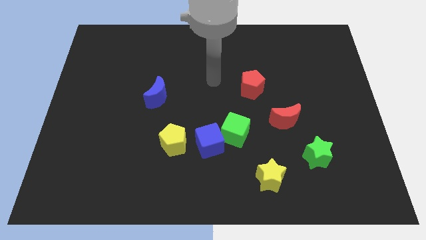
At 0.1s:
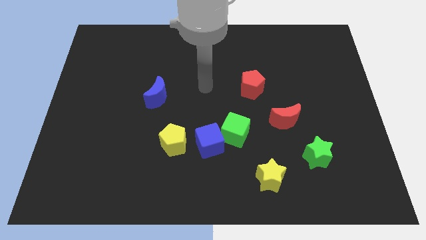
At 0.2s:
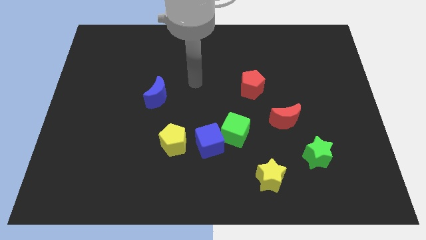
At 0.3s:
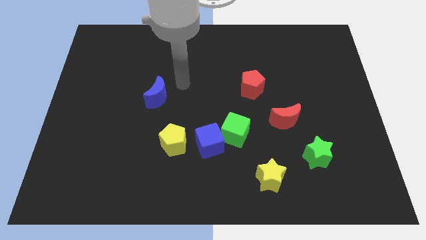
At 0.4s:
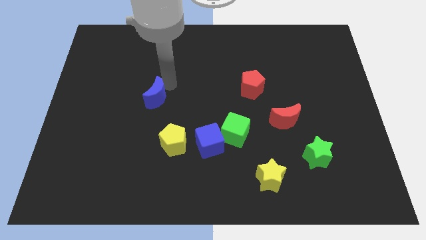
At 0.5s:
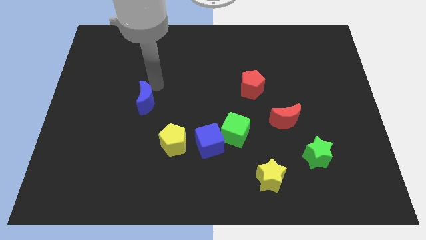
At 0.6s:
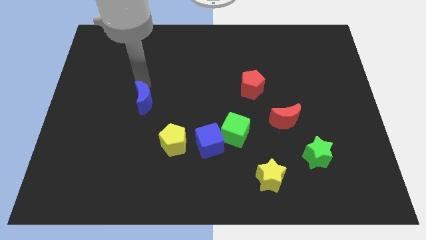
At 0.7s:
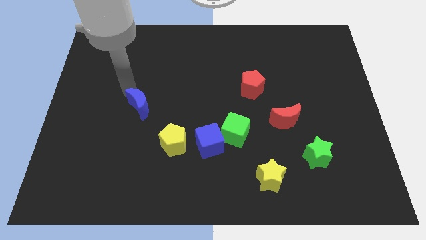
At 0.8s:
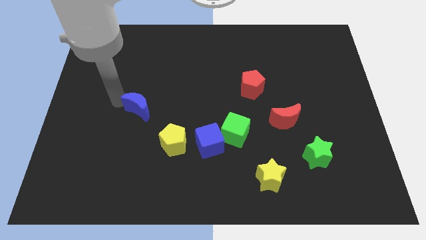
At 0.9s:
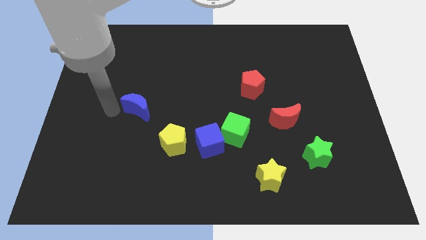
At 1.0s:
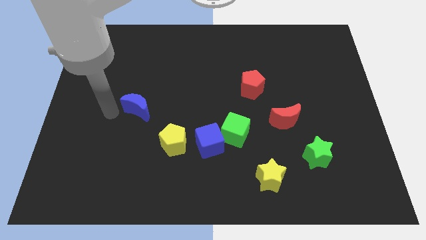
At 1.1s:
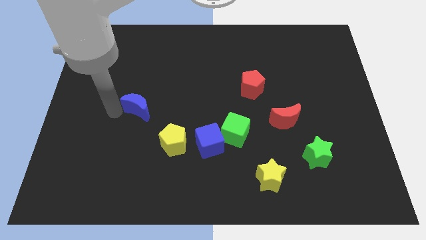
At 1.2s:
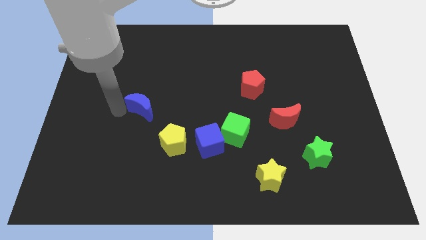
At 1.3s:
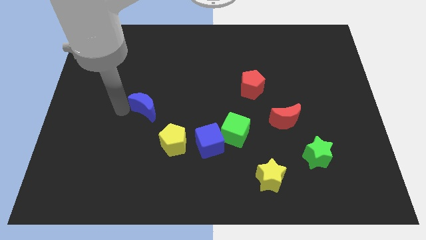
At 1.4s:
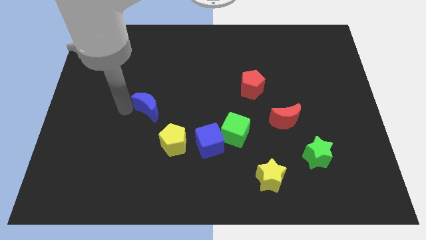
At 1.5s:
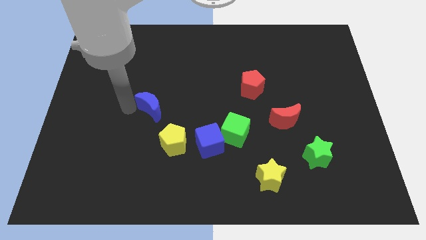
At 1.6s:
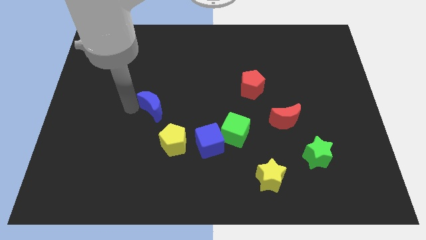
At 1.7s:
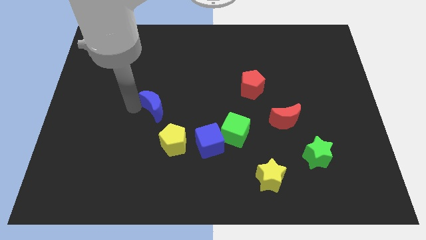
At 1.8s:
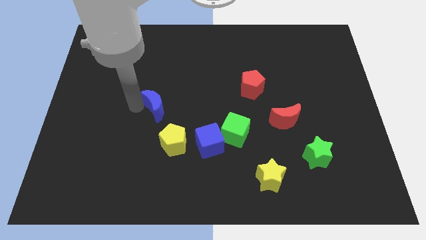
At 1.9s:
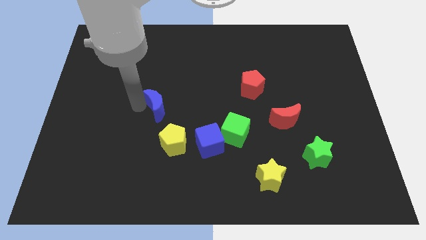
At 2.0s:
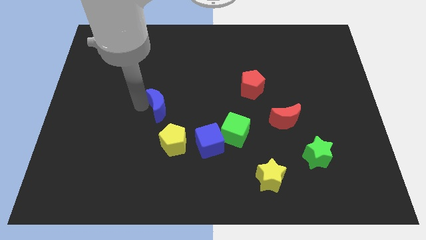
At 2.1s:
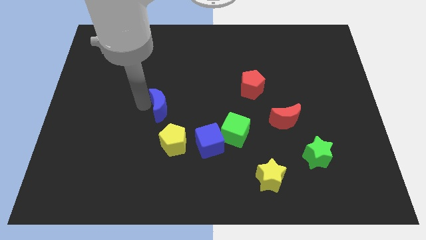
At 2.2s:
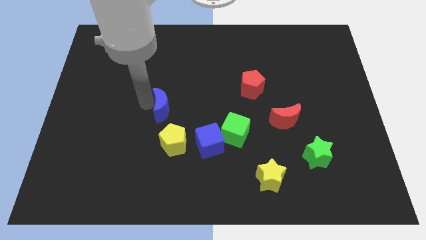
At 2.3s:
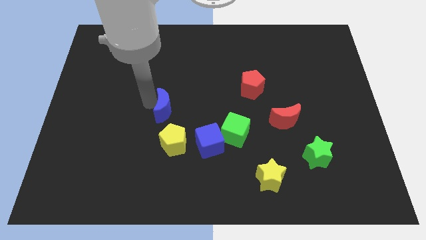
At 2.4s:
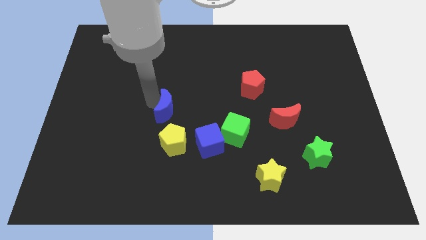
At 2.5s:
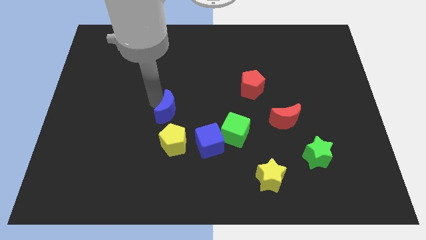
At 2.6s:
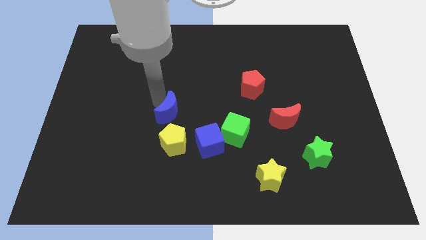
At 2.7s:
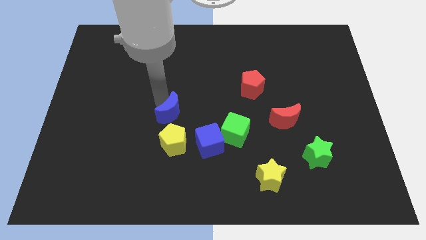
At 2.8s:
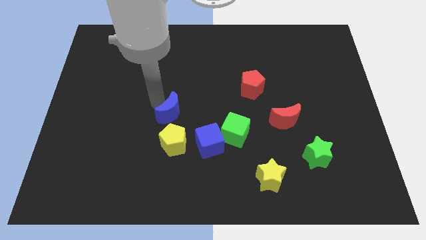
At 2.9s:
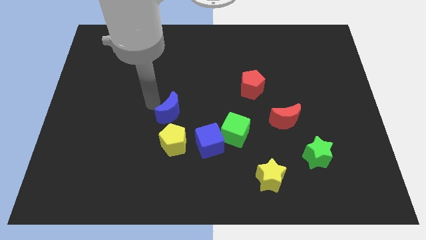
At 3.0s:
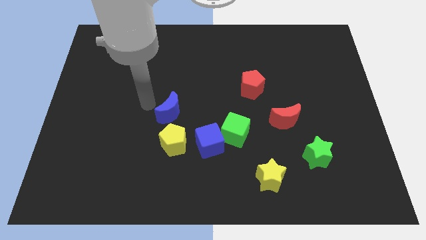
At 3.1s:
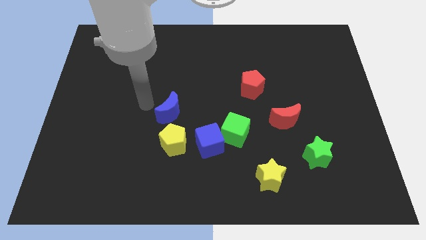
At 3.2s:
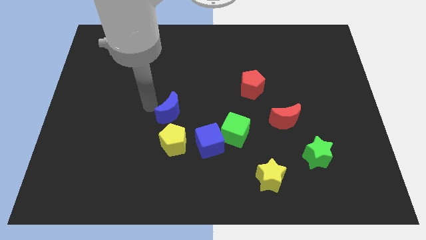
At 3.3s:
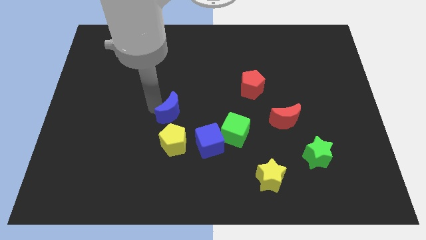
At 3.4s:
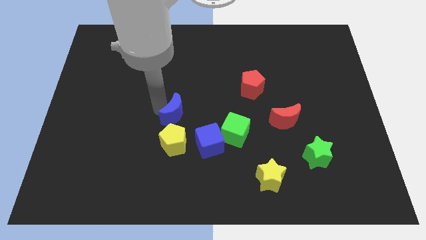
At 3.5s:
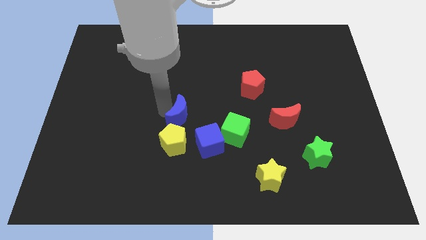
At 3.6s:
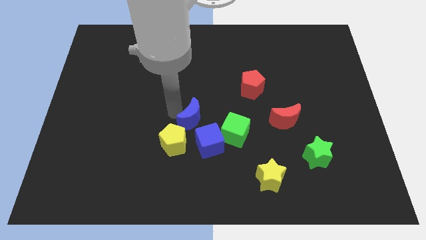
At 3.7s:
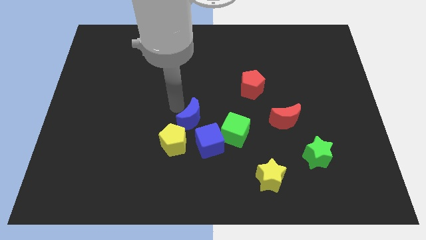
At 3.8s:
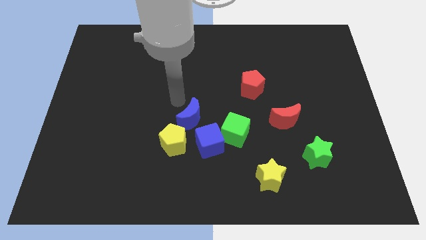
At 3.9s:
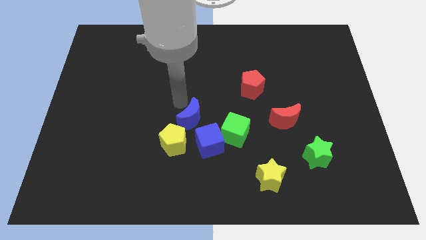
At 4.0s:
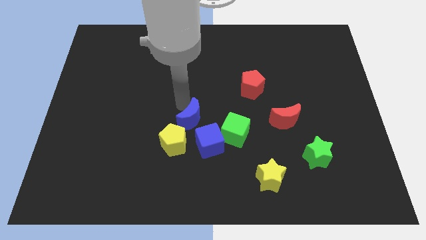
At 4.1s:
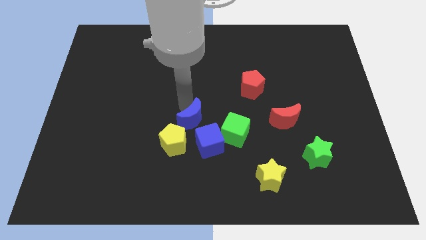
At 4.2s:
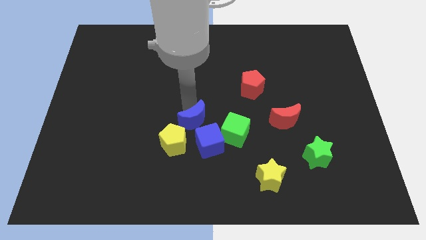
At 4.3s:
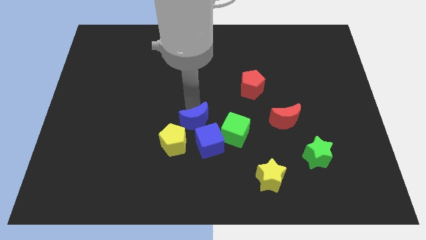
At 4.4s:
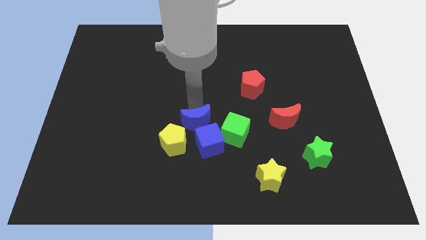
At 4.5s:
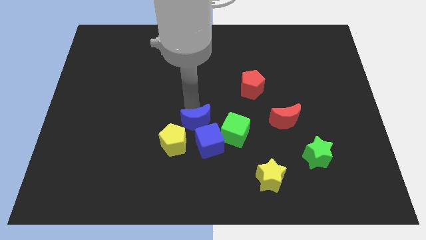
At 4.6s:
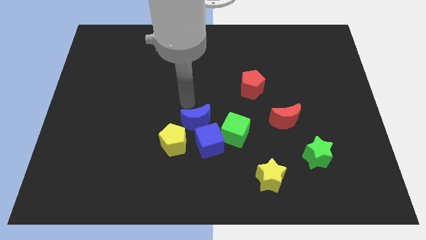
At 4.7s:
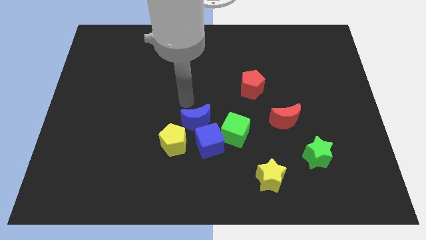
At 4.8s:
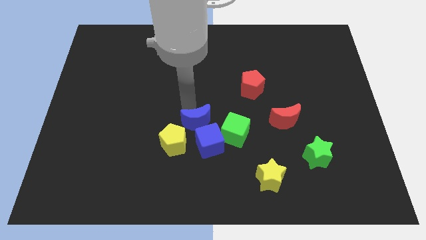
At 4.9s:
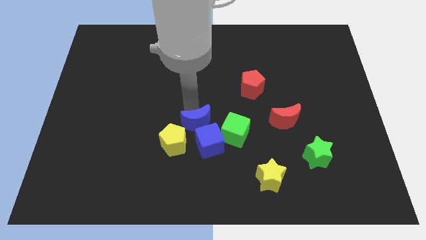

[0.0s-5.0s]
slide the blue moon to the blue cube

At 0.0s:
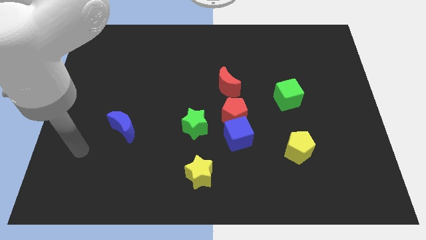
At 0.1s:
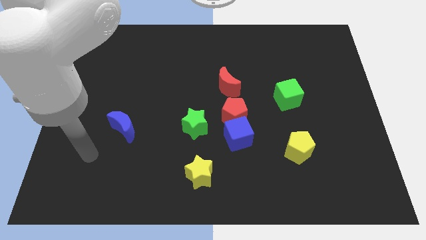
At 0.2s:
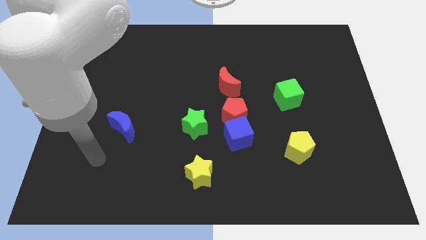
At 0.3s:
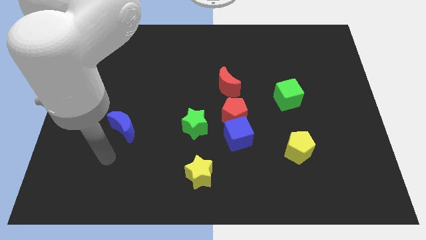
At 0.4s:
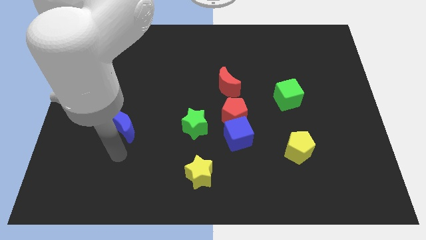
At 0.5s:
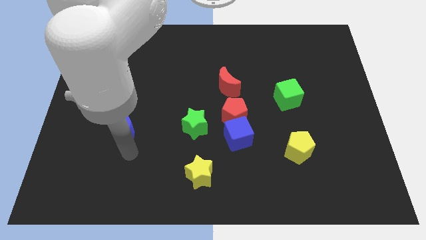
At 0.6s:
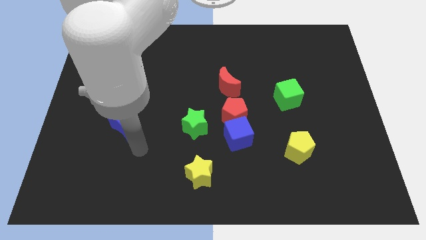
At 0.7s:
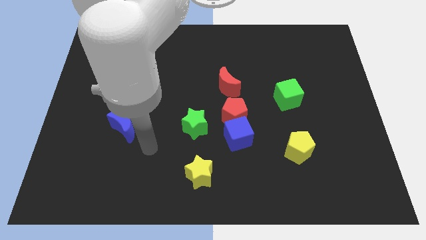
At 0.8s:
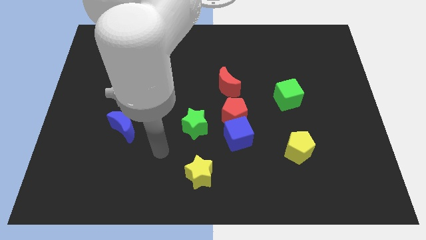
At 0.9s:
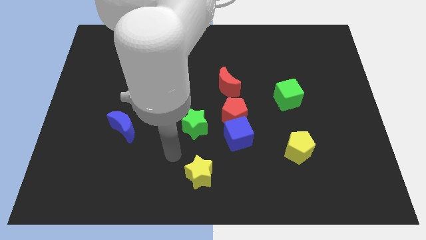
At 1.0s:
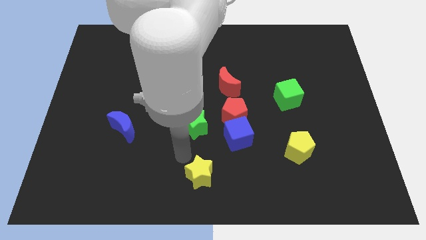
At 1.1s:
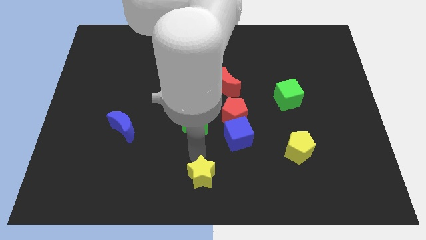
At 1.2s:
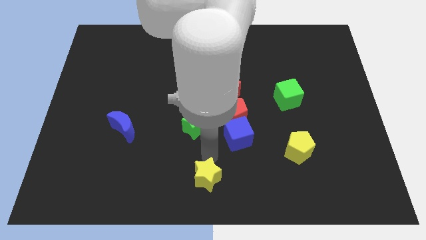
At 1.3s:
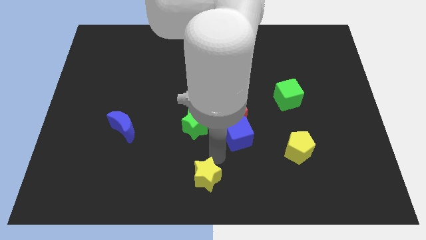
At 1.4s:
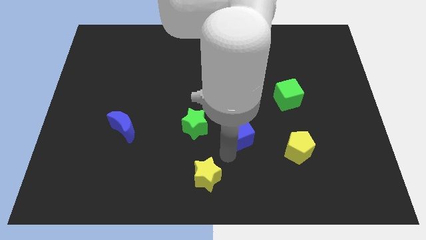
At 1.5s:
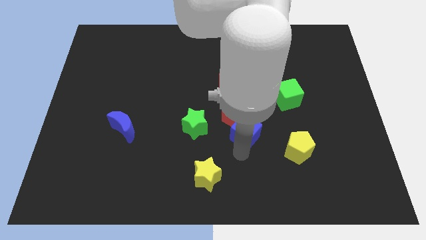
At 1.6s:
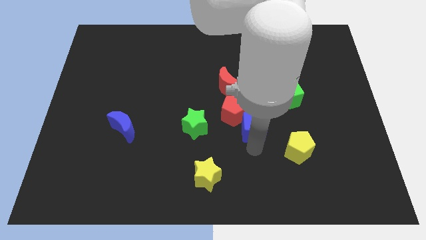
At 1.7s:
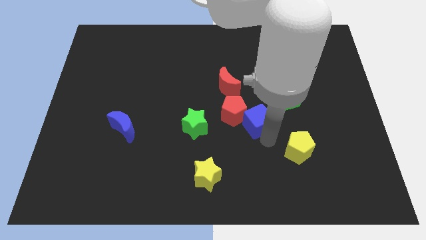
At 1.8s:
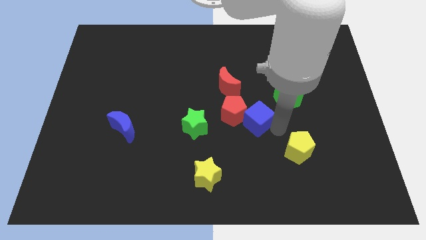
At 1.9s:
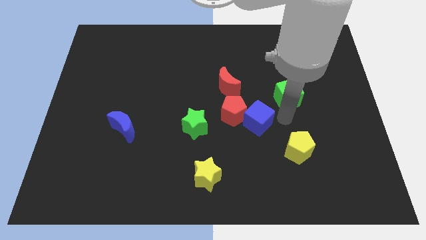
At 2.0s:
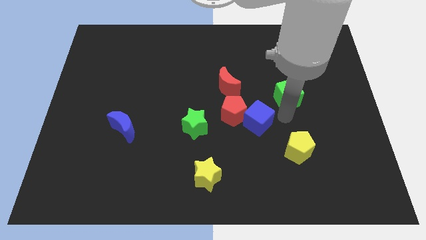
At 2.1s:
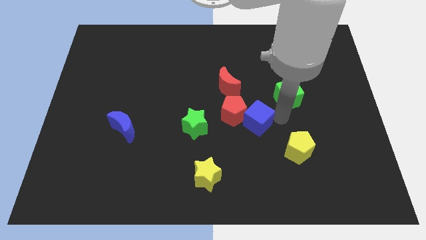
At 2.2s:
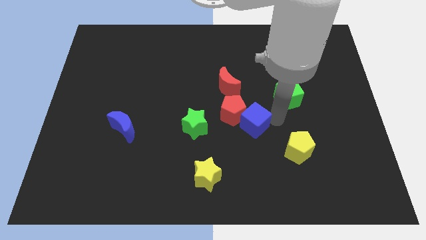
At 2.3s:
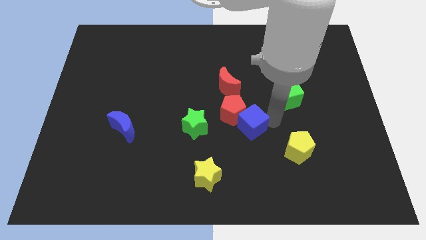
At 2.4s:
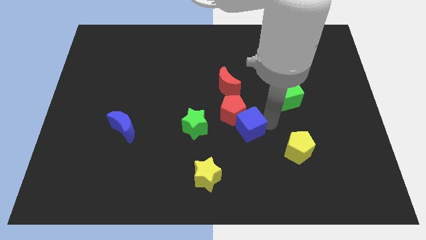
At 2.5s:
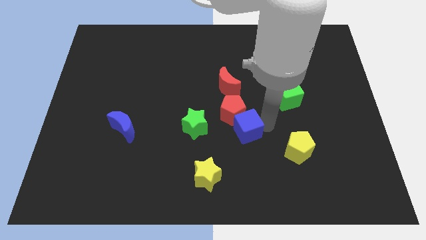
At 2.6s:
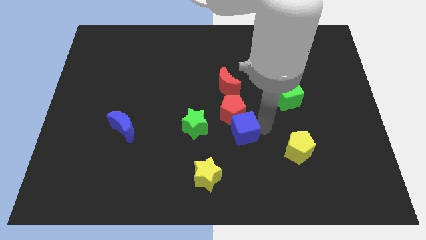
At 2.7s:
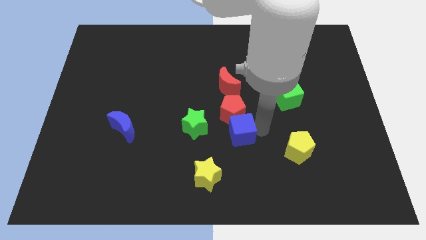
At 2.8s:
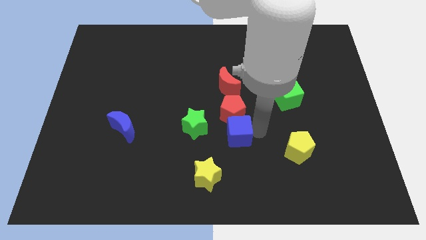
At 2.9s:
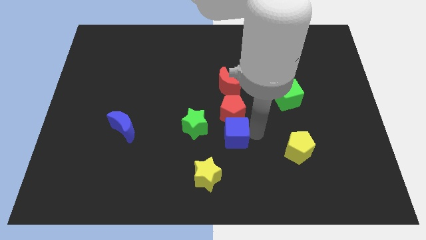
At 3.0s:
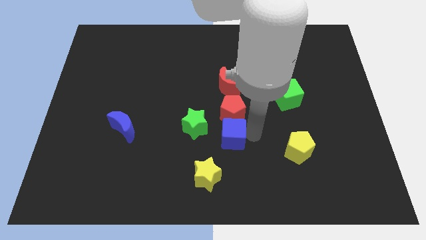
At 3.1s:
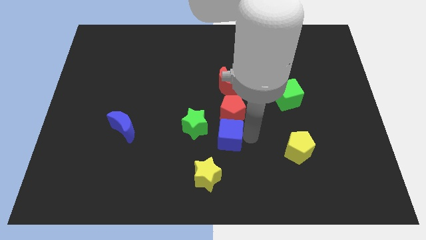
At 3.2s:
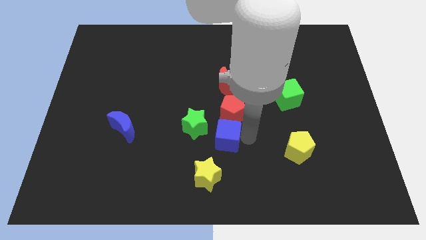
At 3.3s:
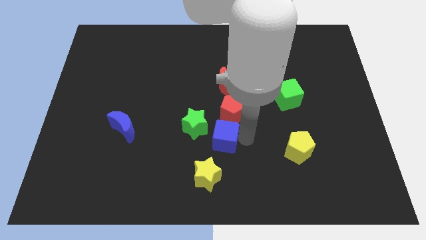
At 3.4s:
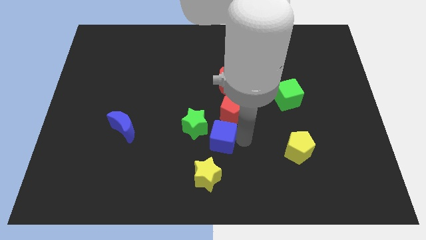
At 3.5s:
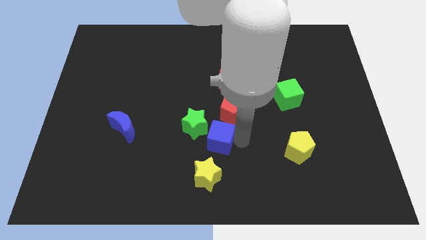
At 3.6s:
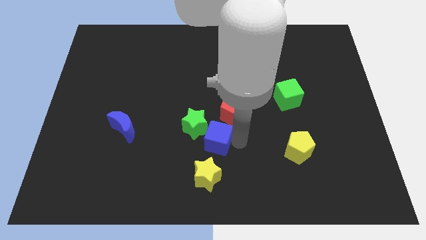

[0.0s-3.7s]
push the blue cube close to the green star
